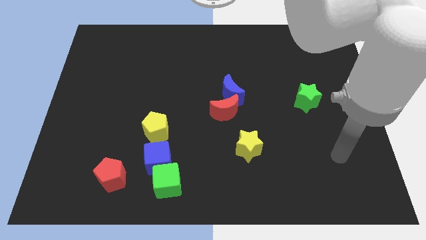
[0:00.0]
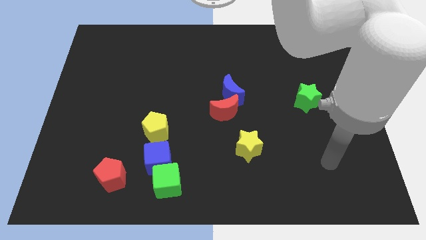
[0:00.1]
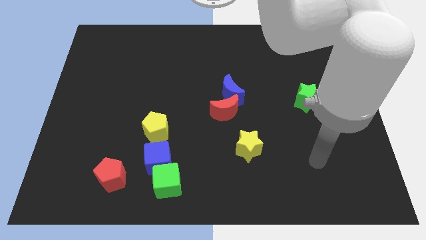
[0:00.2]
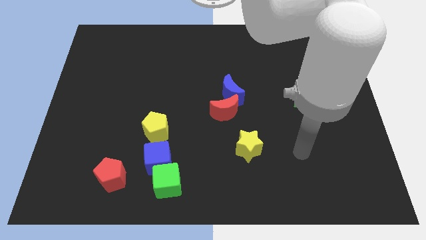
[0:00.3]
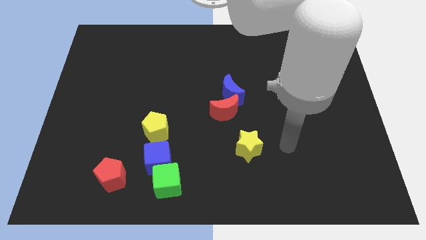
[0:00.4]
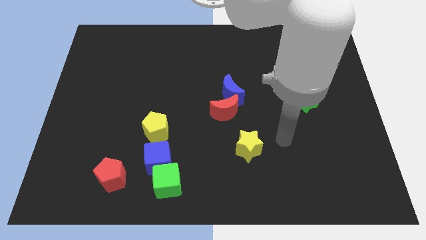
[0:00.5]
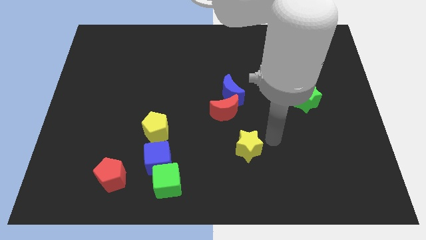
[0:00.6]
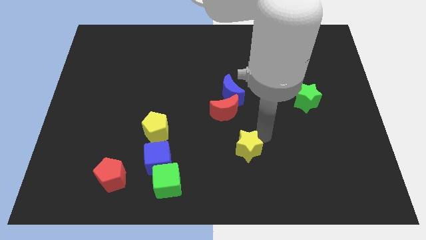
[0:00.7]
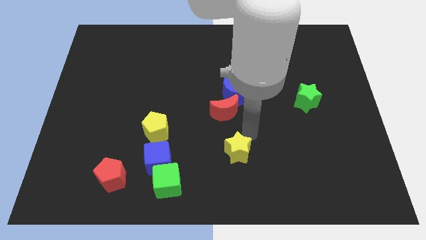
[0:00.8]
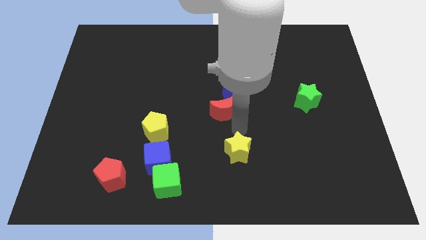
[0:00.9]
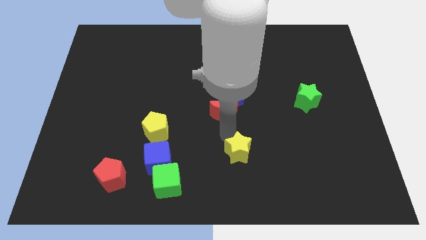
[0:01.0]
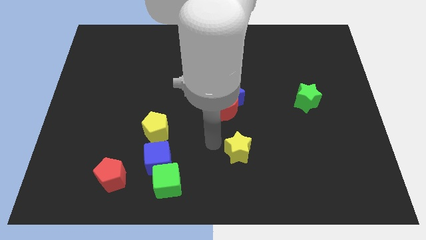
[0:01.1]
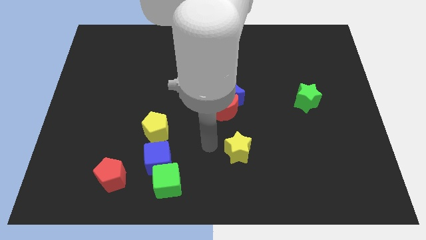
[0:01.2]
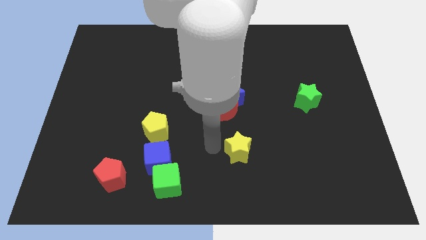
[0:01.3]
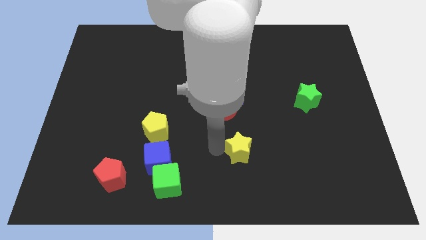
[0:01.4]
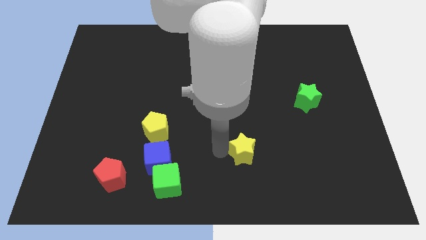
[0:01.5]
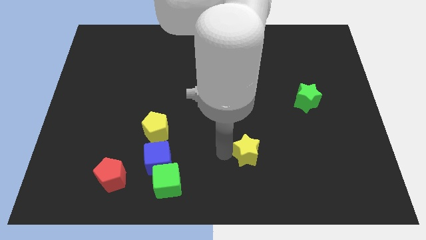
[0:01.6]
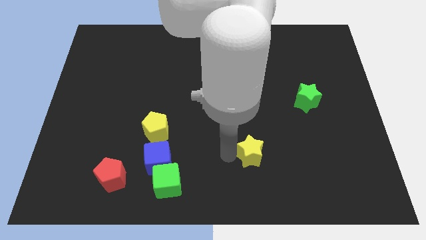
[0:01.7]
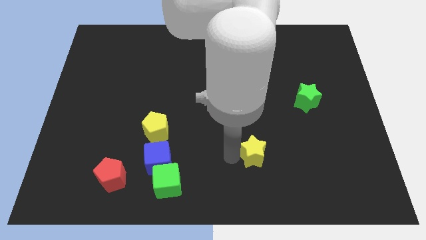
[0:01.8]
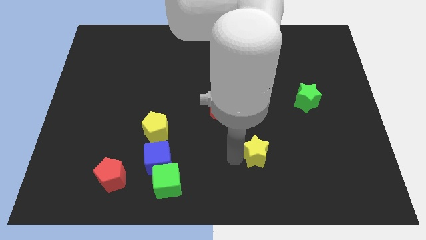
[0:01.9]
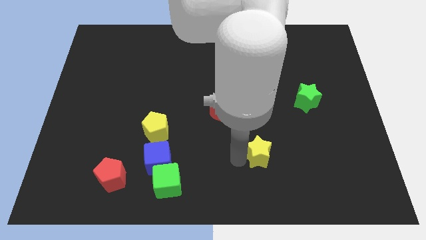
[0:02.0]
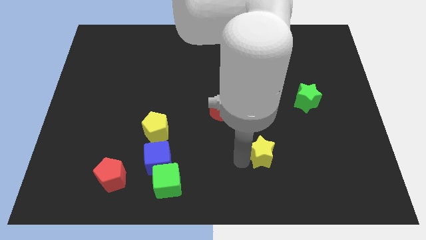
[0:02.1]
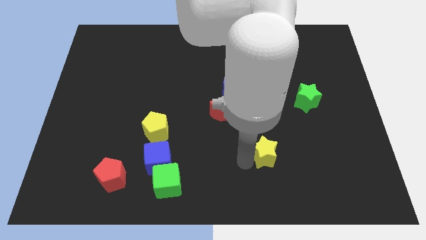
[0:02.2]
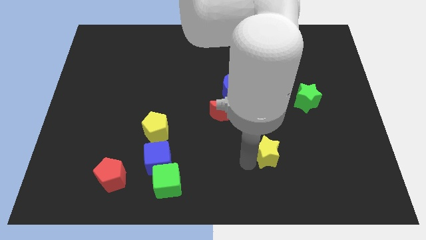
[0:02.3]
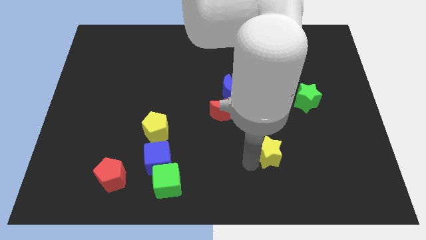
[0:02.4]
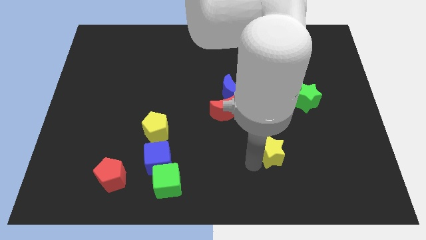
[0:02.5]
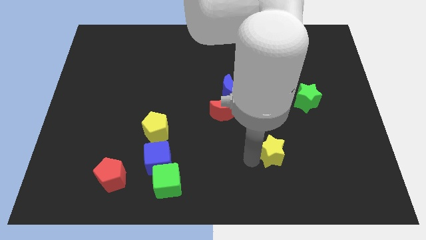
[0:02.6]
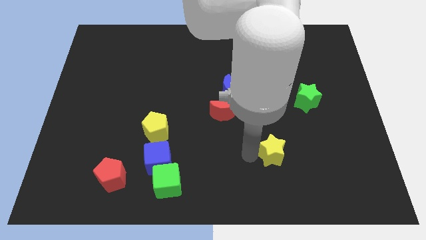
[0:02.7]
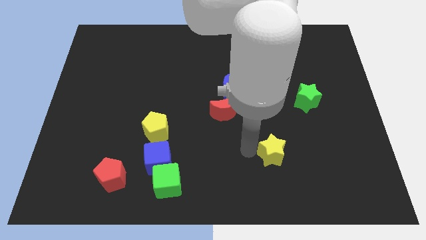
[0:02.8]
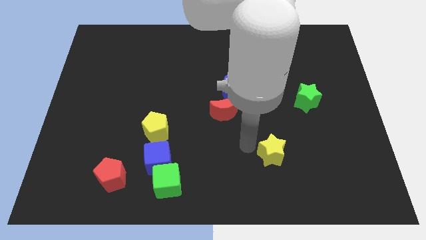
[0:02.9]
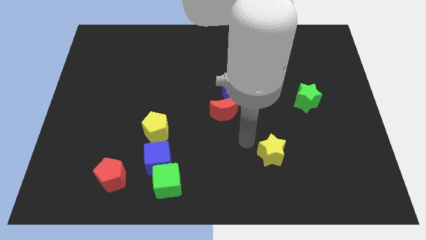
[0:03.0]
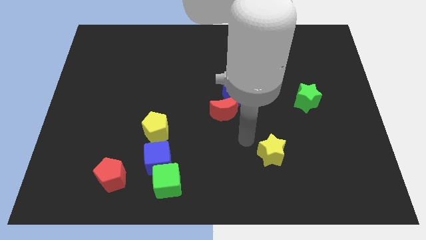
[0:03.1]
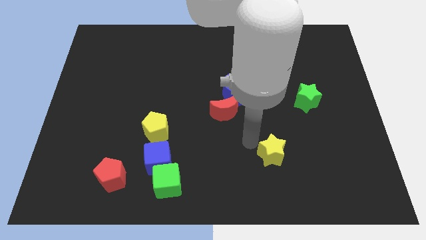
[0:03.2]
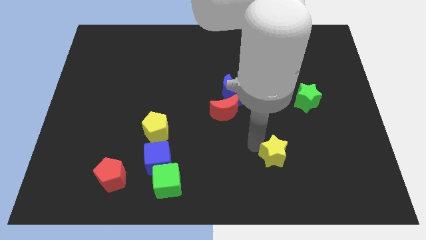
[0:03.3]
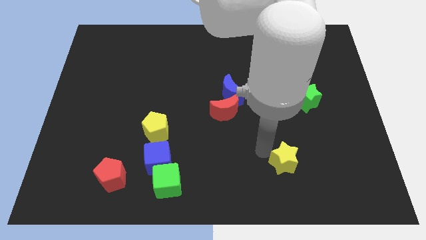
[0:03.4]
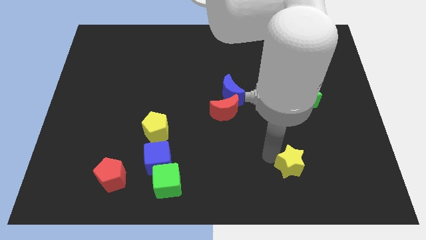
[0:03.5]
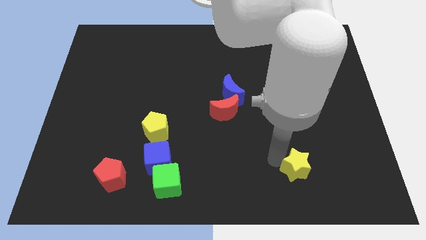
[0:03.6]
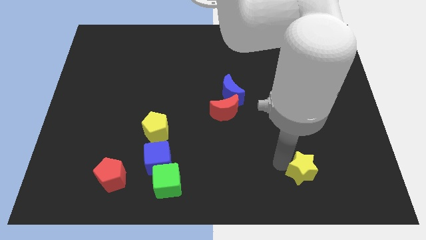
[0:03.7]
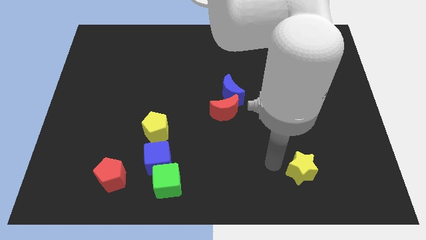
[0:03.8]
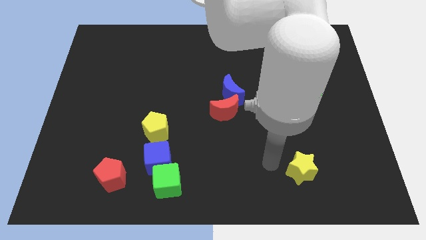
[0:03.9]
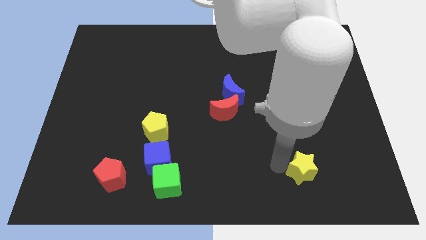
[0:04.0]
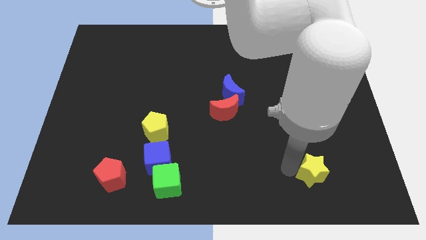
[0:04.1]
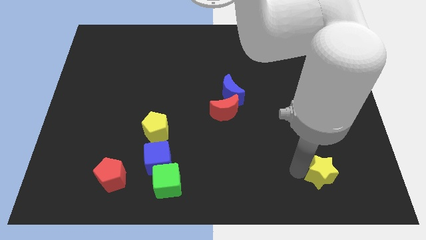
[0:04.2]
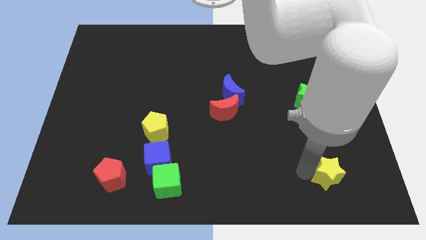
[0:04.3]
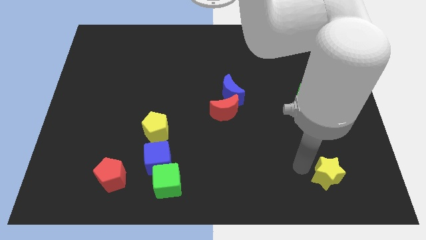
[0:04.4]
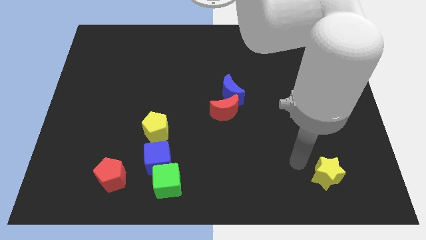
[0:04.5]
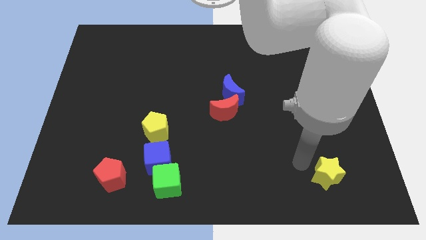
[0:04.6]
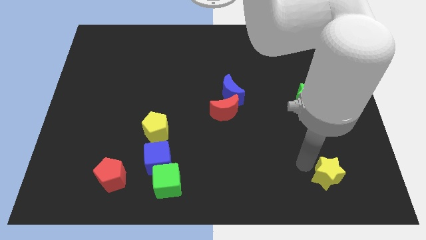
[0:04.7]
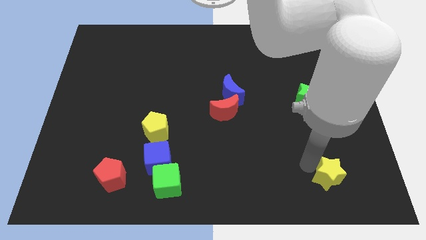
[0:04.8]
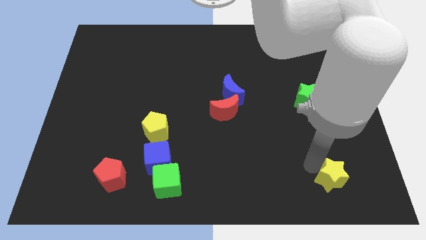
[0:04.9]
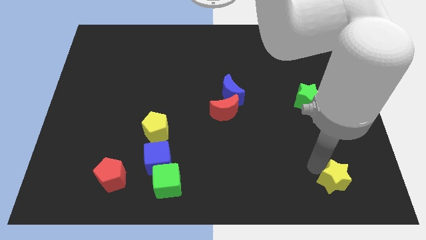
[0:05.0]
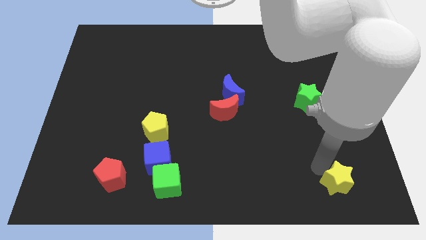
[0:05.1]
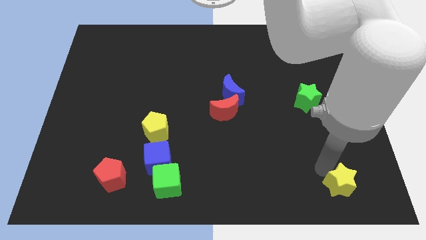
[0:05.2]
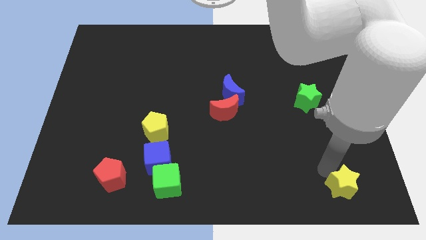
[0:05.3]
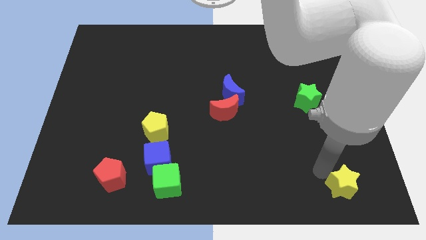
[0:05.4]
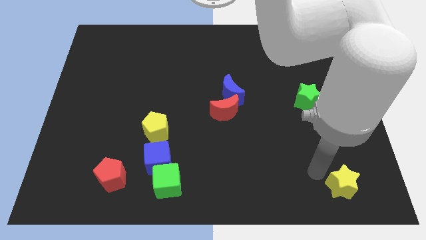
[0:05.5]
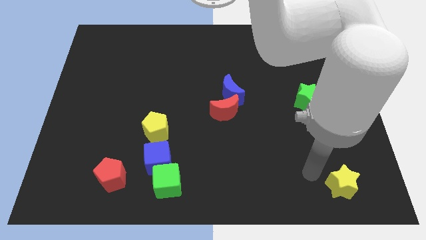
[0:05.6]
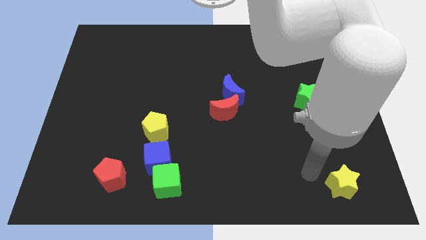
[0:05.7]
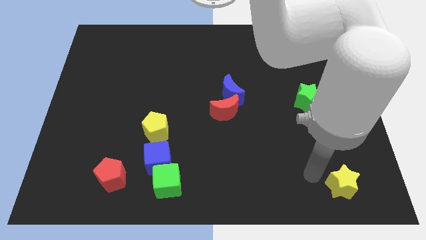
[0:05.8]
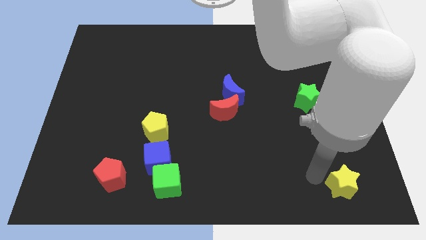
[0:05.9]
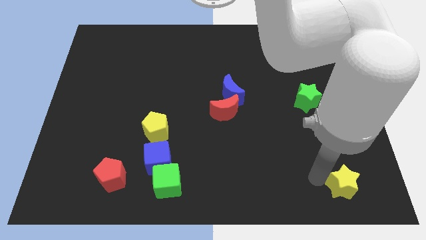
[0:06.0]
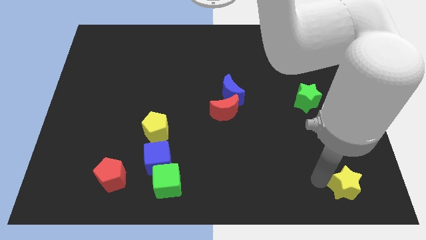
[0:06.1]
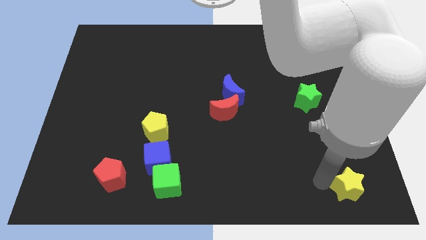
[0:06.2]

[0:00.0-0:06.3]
move the yellow star to the bottom right corner

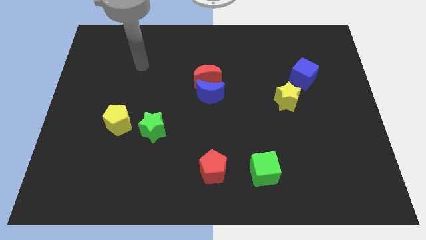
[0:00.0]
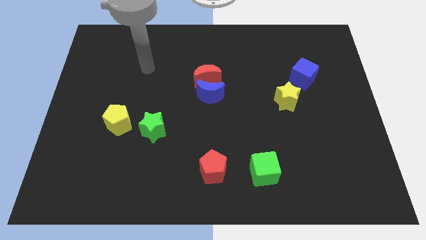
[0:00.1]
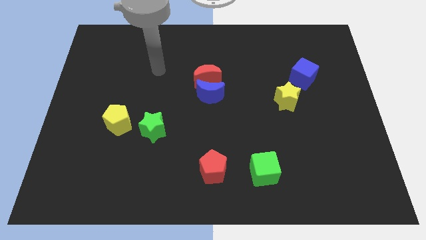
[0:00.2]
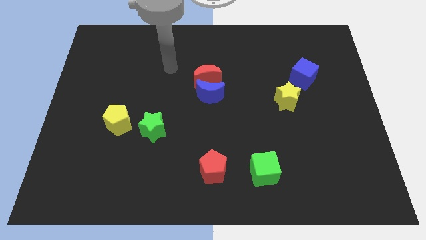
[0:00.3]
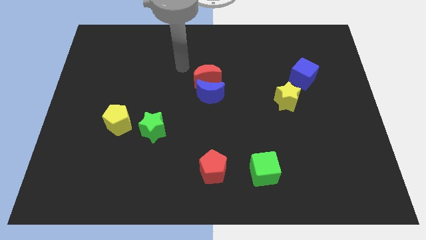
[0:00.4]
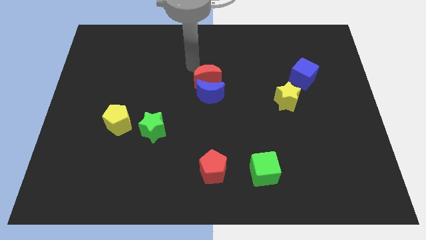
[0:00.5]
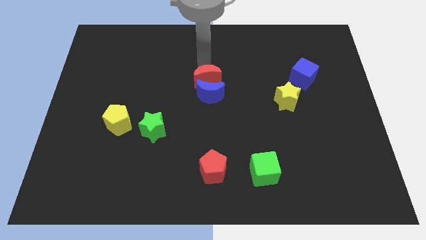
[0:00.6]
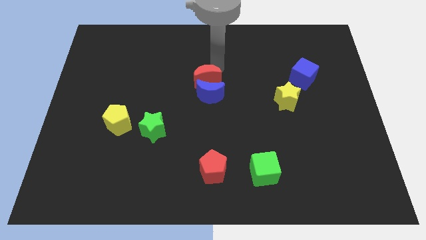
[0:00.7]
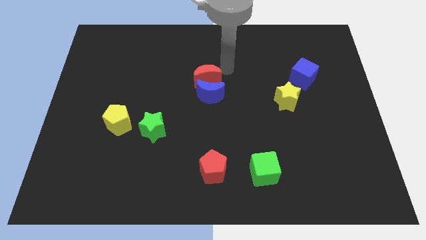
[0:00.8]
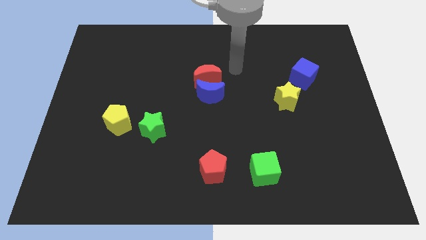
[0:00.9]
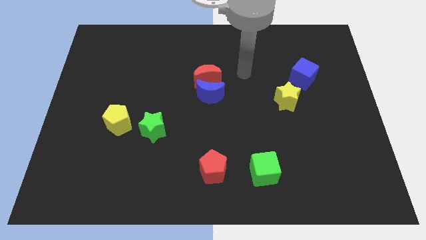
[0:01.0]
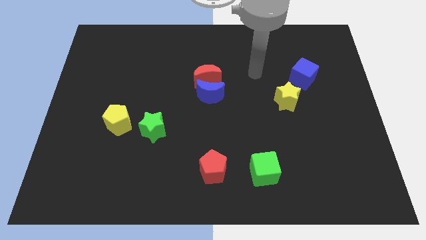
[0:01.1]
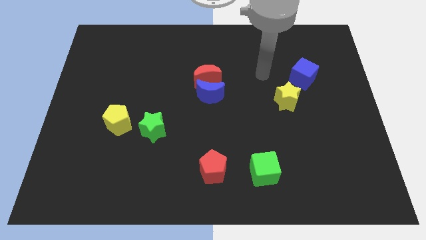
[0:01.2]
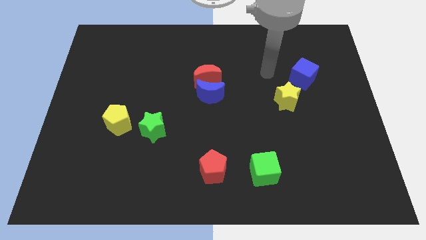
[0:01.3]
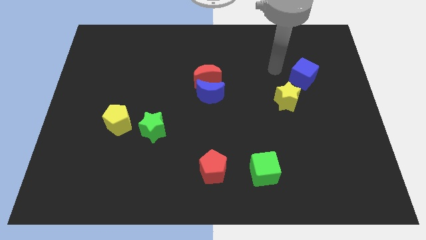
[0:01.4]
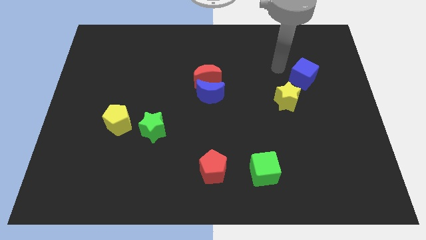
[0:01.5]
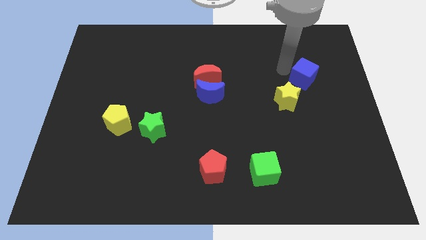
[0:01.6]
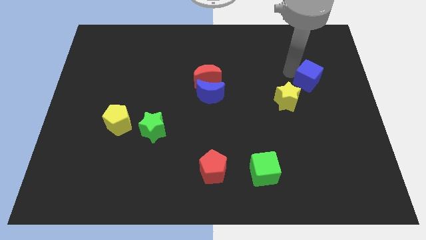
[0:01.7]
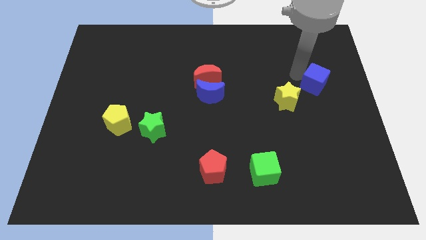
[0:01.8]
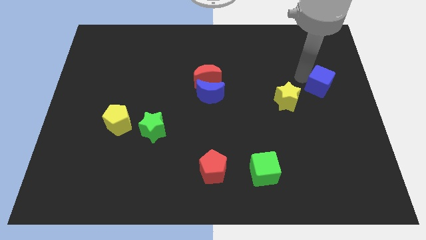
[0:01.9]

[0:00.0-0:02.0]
push the blue cube to the right side
